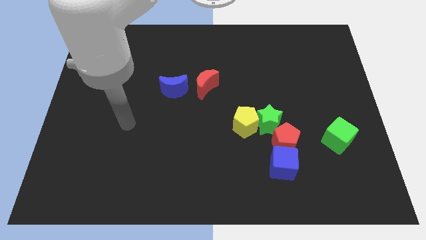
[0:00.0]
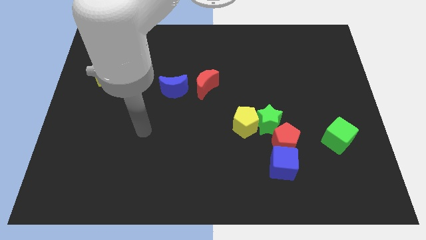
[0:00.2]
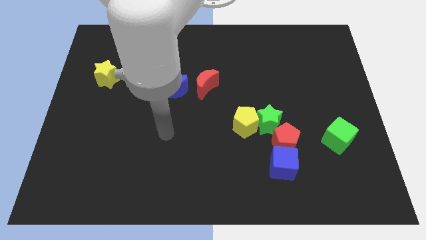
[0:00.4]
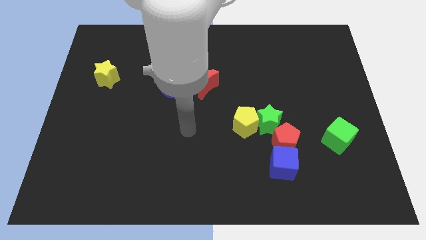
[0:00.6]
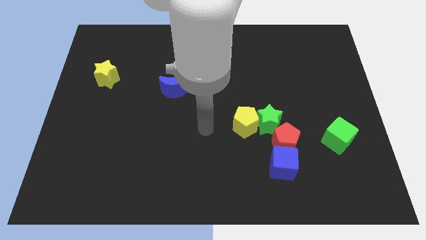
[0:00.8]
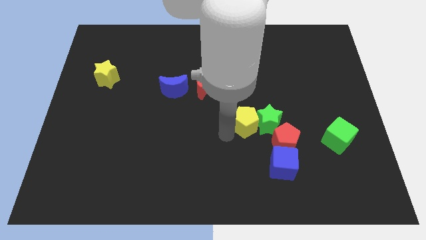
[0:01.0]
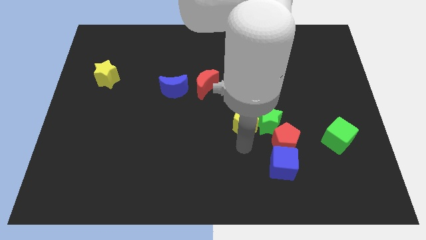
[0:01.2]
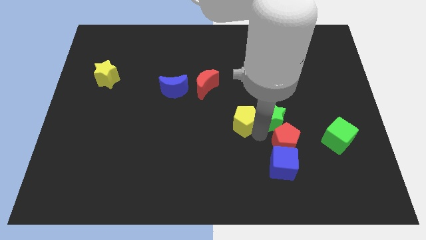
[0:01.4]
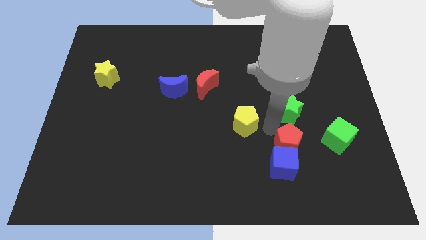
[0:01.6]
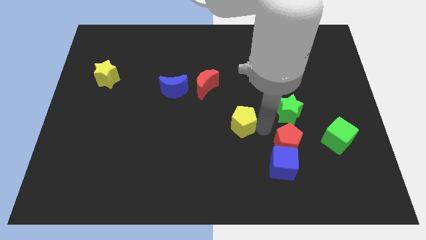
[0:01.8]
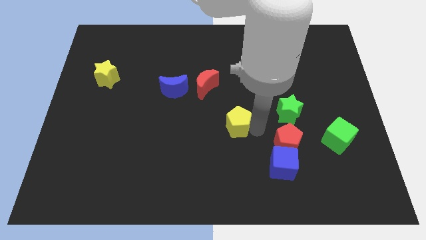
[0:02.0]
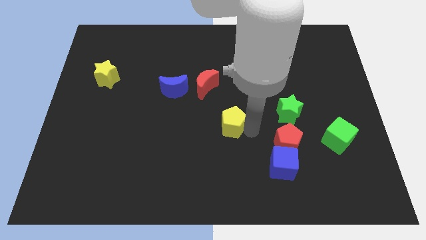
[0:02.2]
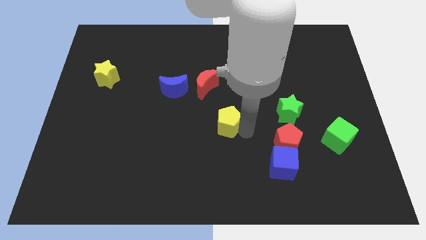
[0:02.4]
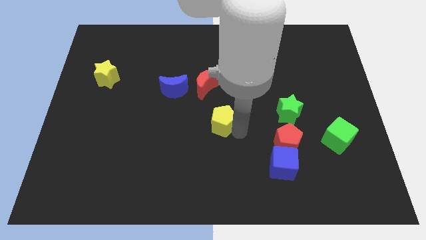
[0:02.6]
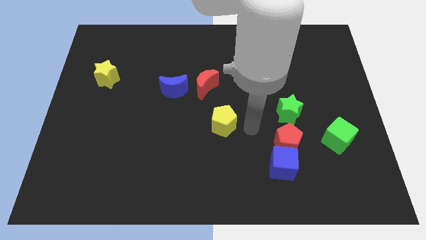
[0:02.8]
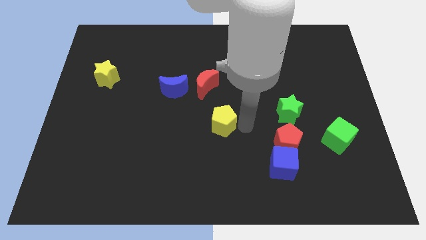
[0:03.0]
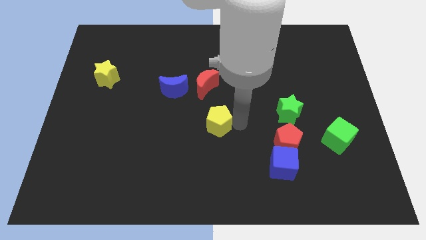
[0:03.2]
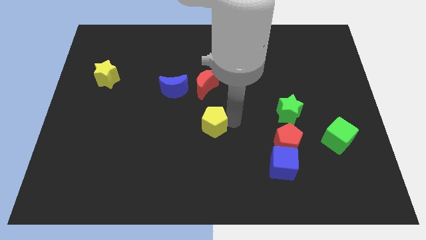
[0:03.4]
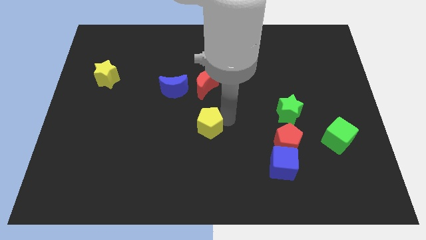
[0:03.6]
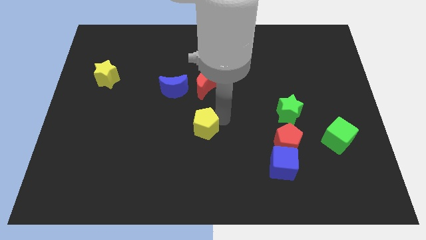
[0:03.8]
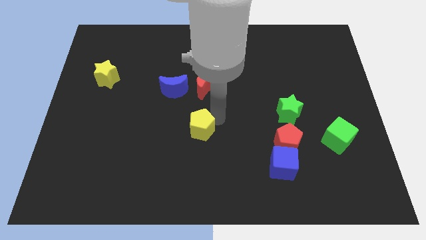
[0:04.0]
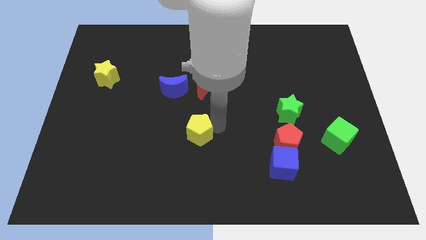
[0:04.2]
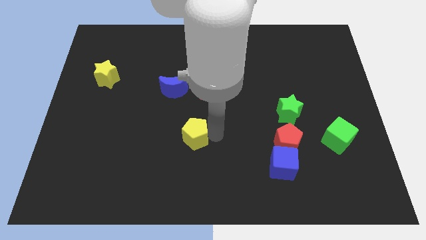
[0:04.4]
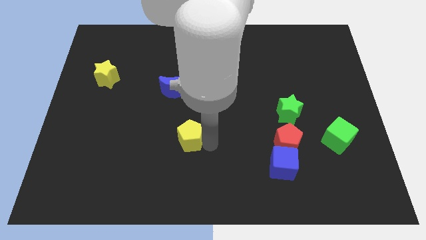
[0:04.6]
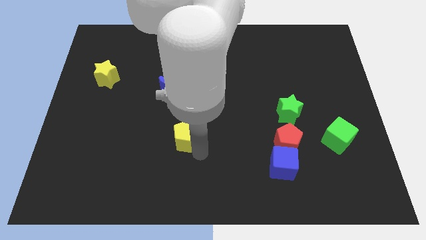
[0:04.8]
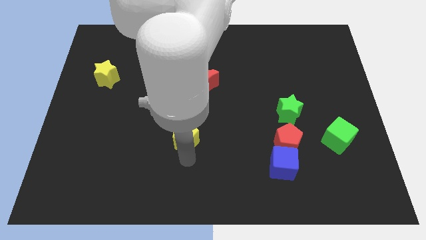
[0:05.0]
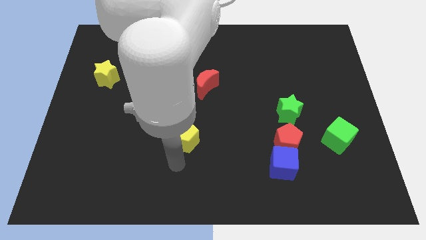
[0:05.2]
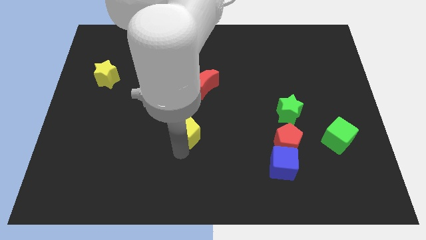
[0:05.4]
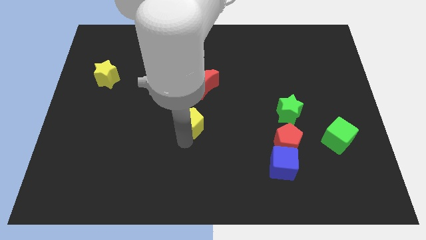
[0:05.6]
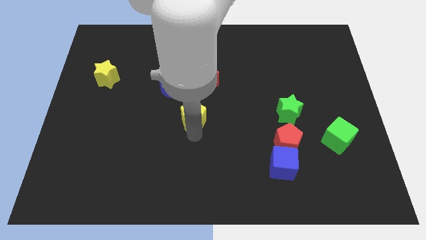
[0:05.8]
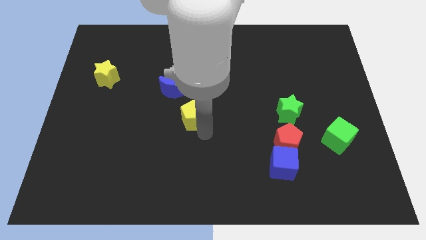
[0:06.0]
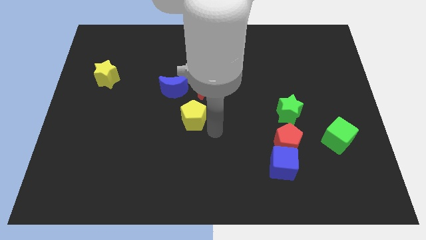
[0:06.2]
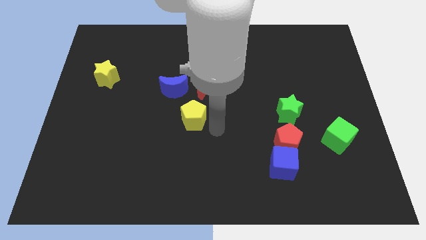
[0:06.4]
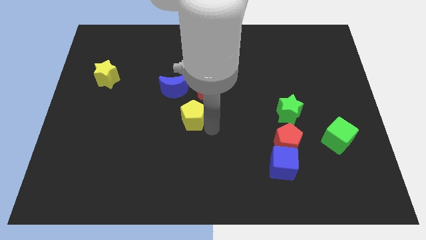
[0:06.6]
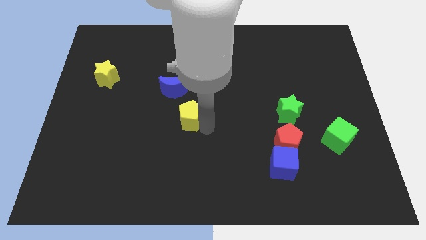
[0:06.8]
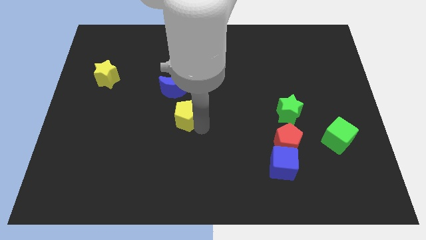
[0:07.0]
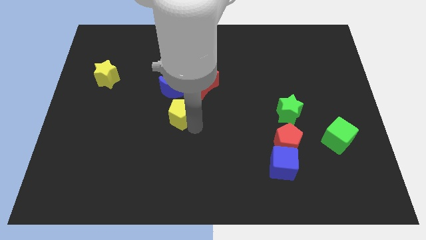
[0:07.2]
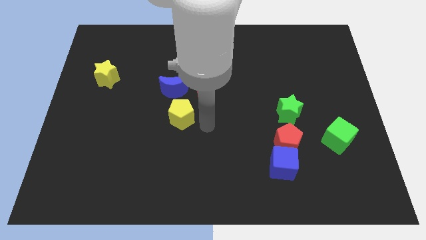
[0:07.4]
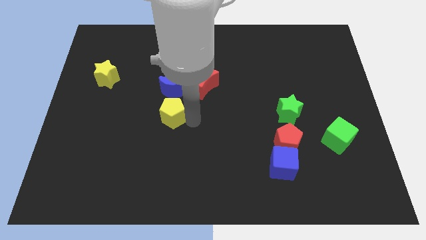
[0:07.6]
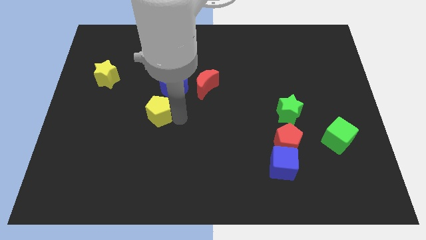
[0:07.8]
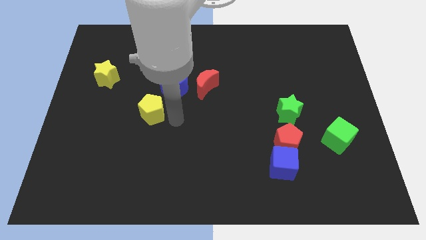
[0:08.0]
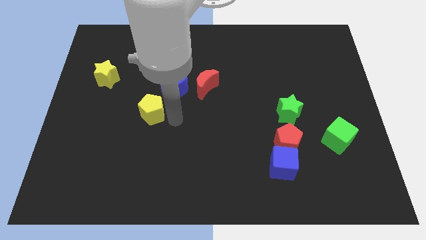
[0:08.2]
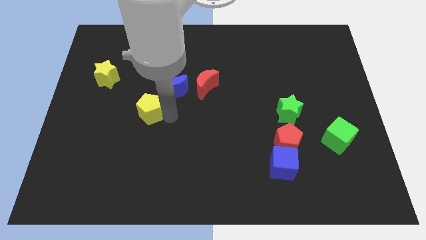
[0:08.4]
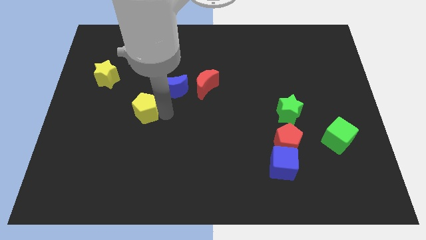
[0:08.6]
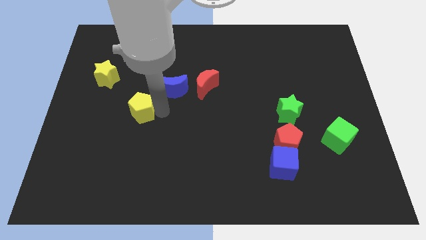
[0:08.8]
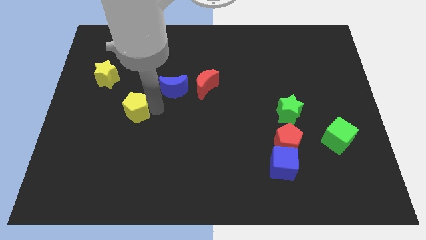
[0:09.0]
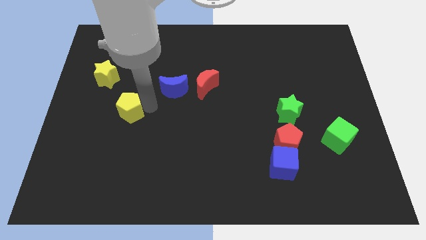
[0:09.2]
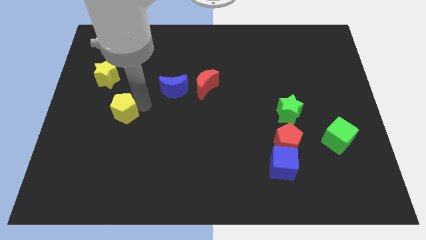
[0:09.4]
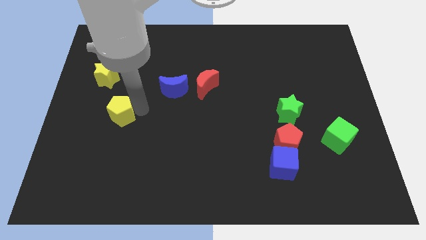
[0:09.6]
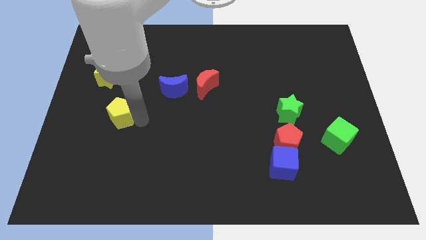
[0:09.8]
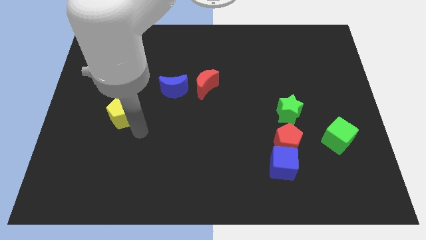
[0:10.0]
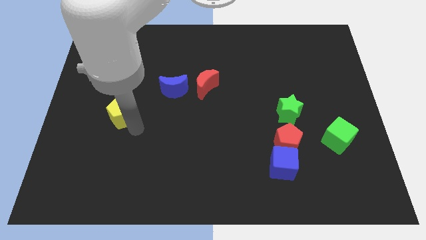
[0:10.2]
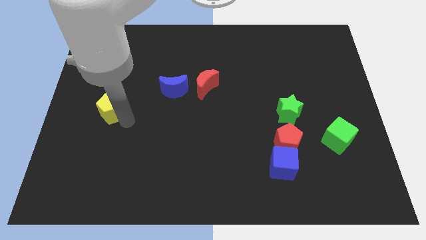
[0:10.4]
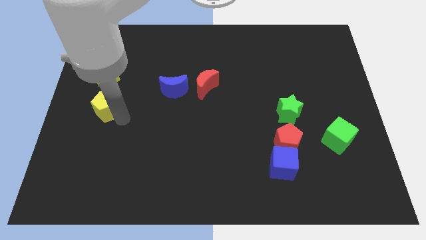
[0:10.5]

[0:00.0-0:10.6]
put the yellow pentagon to the left side of the board
